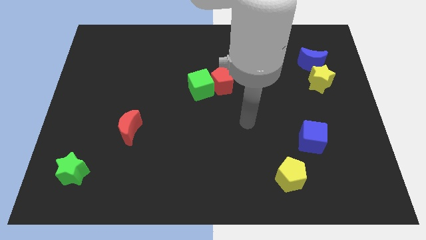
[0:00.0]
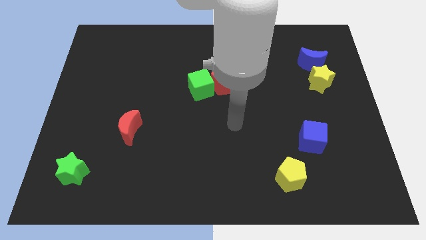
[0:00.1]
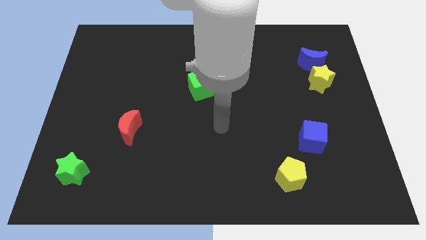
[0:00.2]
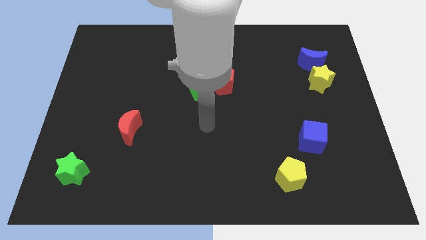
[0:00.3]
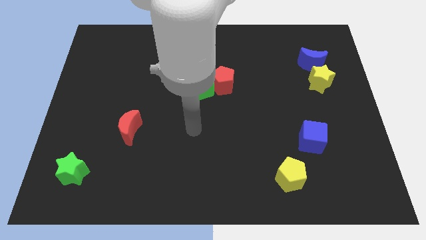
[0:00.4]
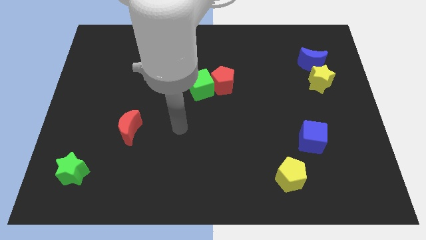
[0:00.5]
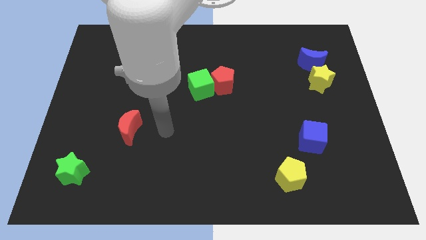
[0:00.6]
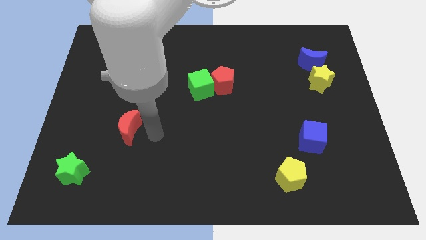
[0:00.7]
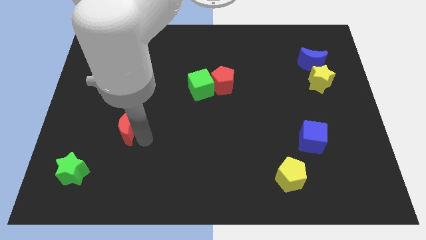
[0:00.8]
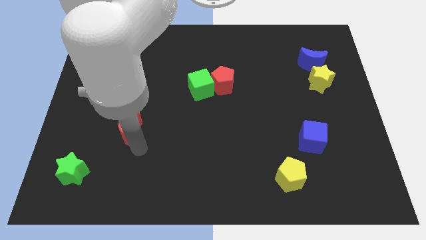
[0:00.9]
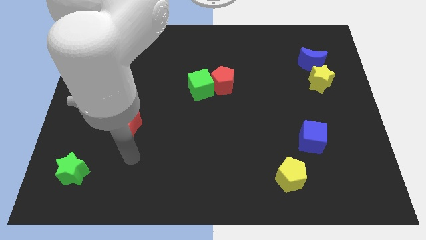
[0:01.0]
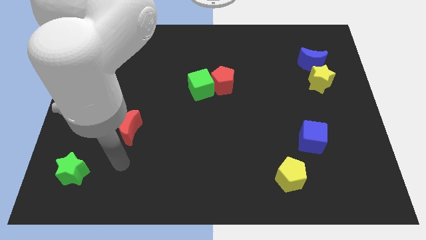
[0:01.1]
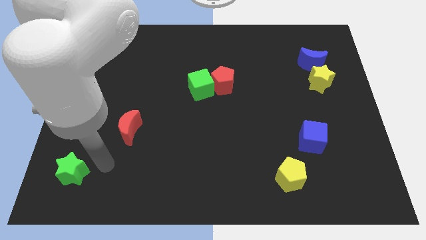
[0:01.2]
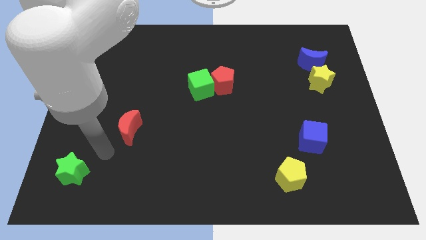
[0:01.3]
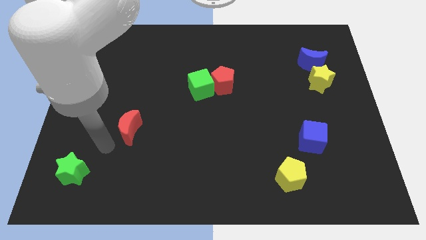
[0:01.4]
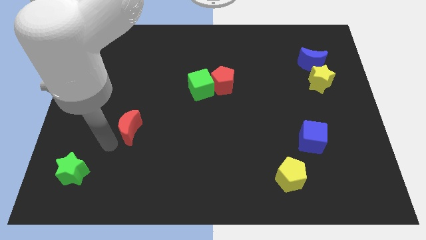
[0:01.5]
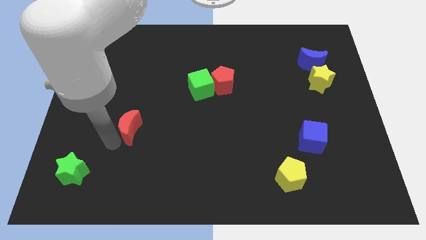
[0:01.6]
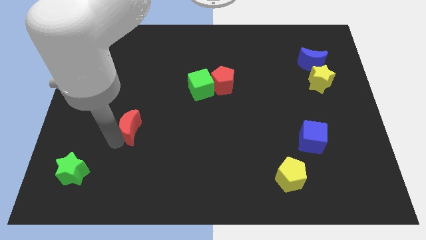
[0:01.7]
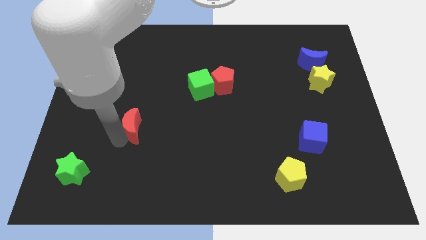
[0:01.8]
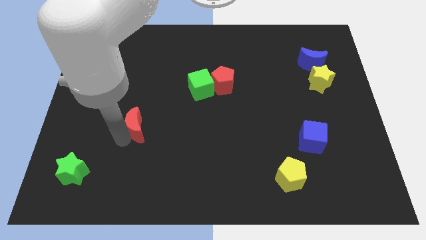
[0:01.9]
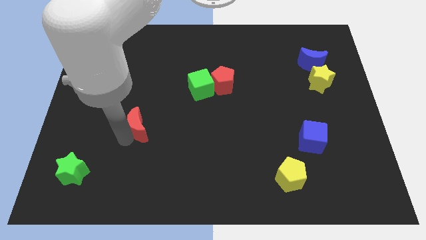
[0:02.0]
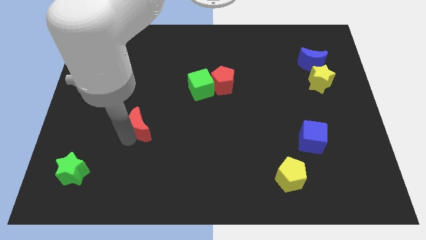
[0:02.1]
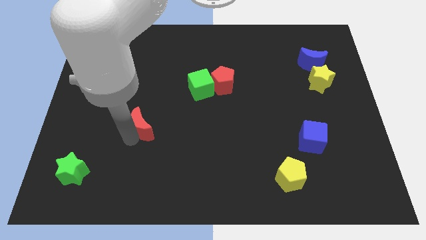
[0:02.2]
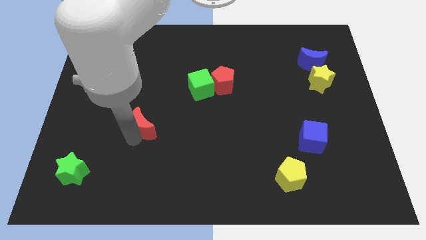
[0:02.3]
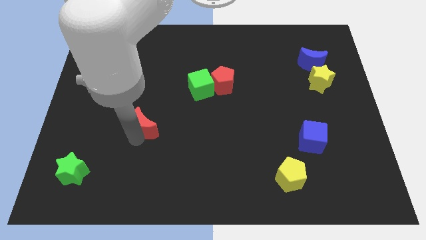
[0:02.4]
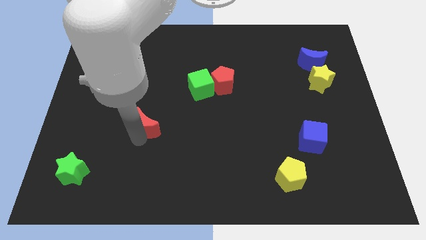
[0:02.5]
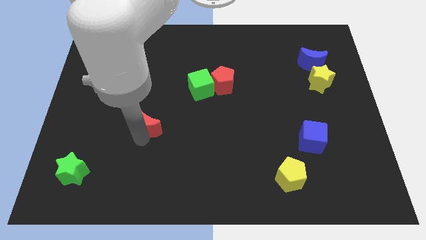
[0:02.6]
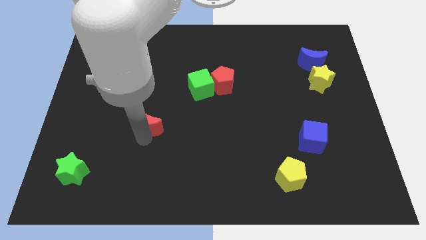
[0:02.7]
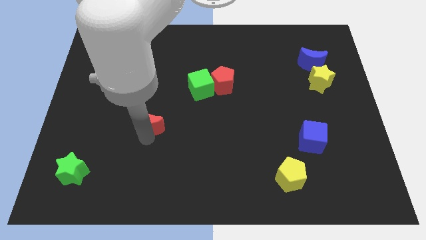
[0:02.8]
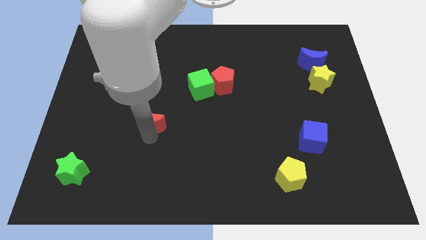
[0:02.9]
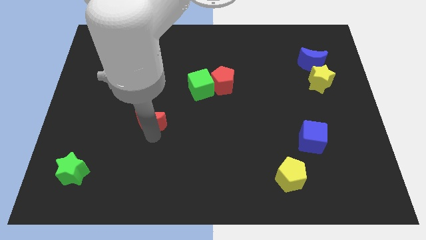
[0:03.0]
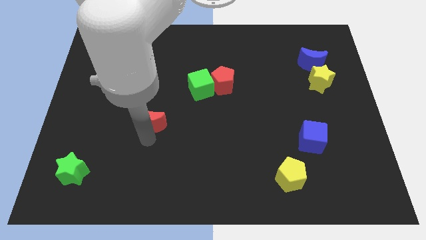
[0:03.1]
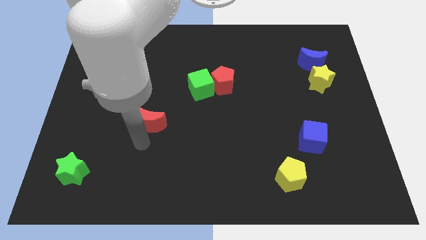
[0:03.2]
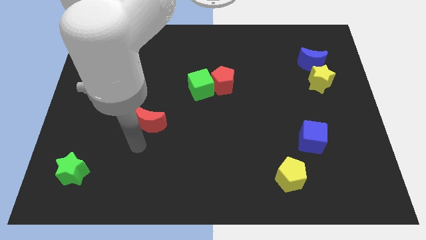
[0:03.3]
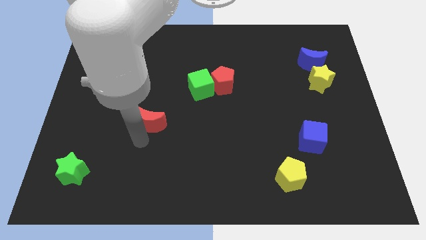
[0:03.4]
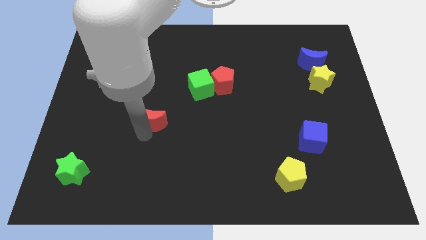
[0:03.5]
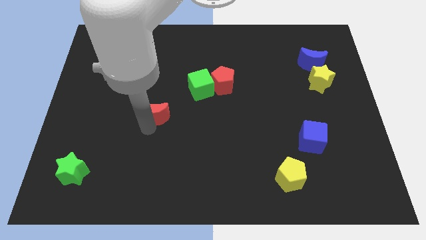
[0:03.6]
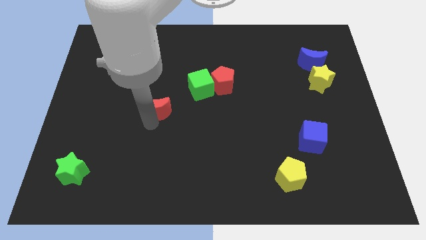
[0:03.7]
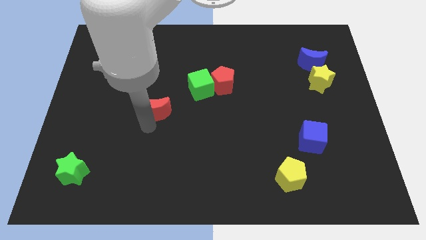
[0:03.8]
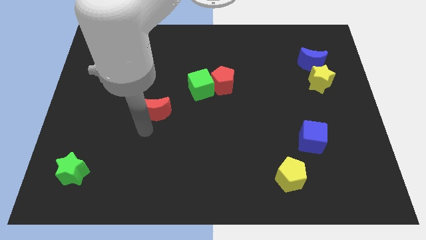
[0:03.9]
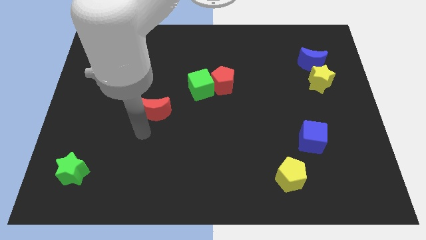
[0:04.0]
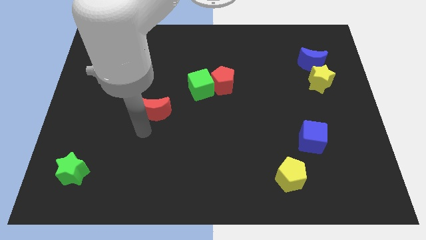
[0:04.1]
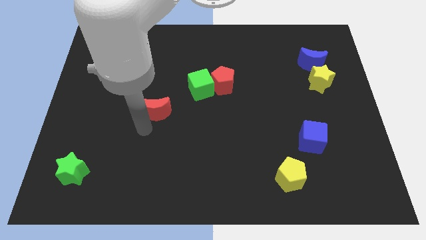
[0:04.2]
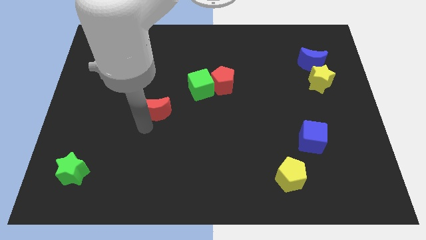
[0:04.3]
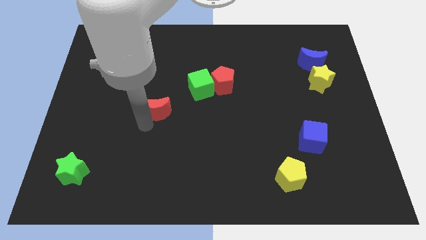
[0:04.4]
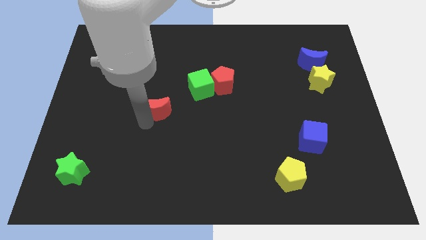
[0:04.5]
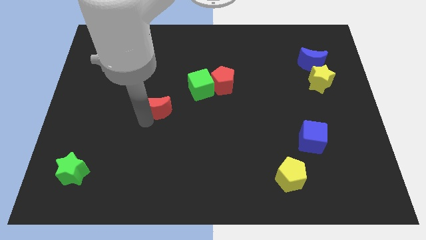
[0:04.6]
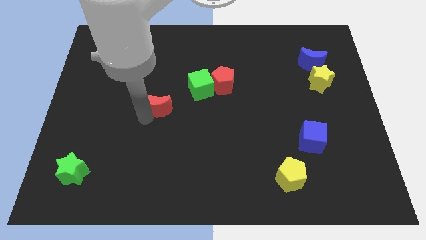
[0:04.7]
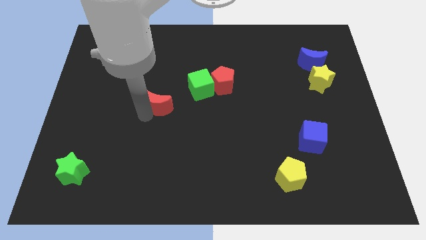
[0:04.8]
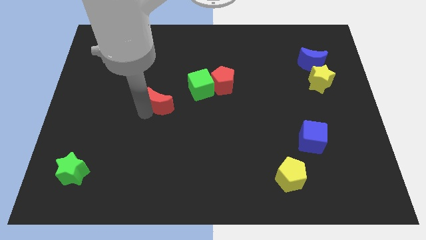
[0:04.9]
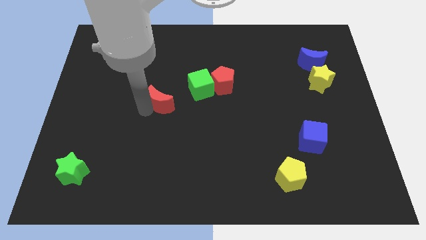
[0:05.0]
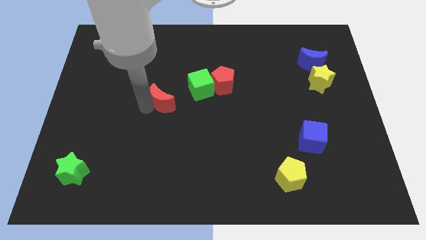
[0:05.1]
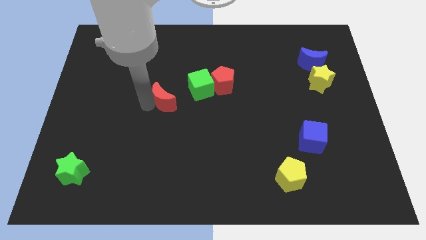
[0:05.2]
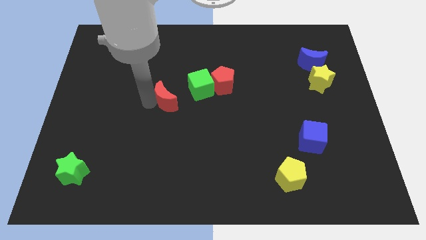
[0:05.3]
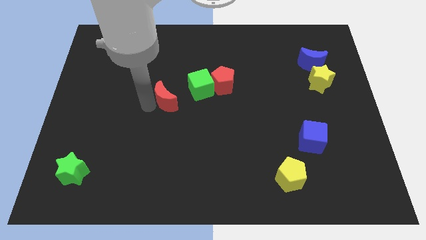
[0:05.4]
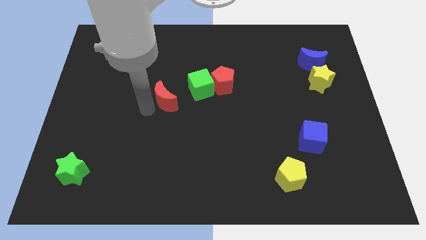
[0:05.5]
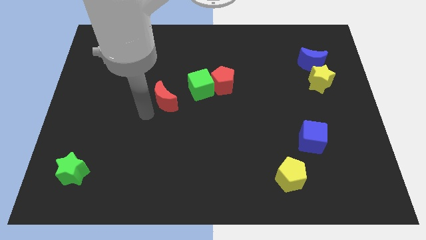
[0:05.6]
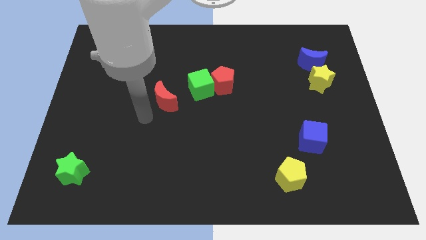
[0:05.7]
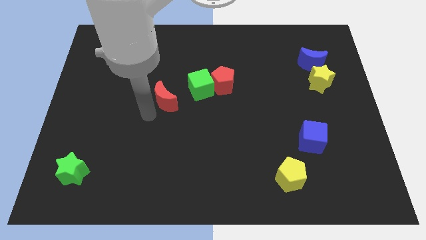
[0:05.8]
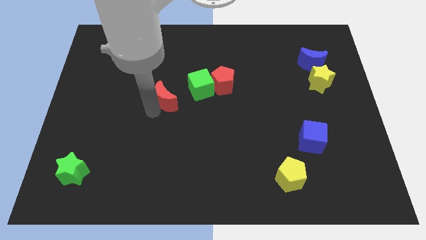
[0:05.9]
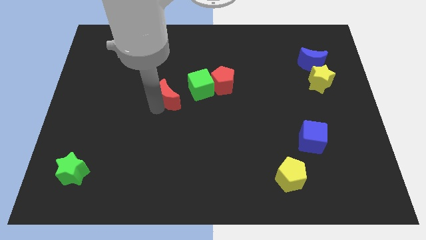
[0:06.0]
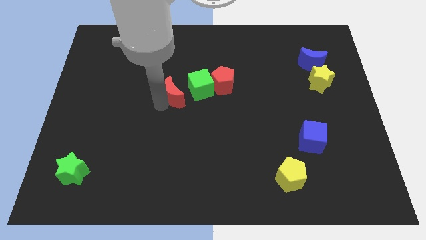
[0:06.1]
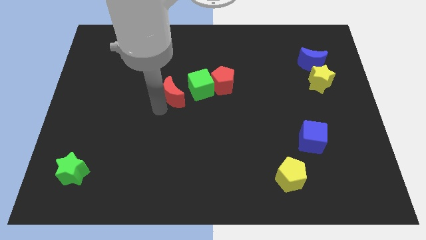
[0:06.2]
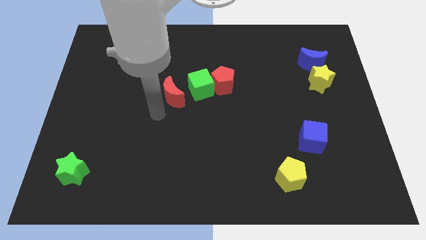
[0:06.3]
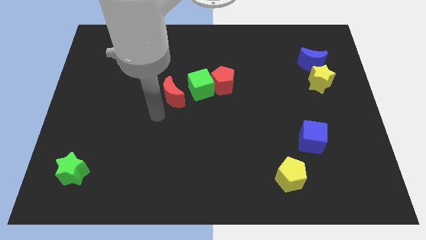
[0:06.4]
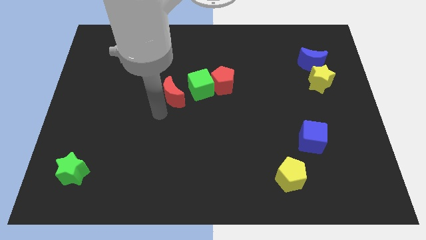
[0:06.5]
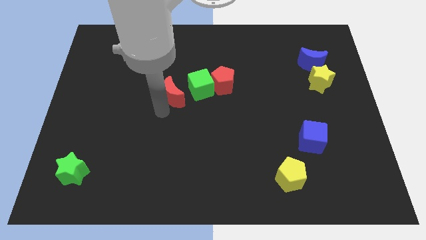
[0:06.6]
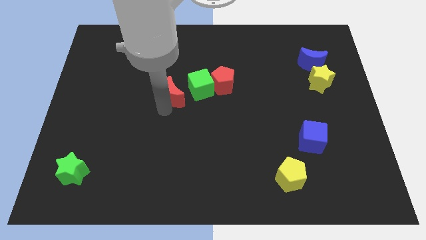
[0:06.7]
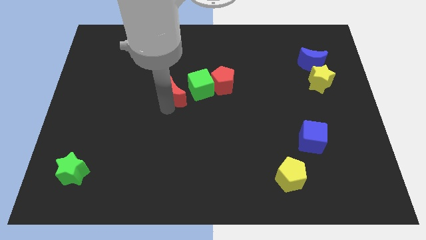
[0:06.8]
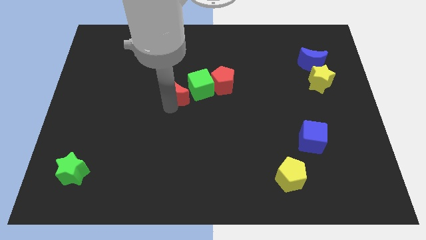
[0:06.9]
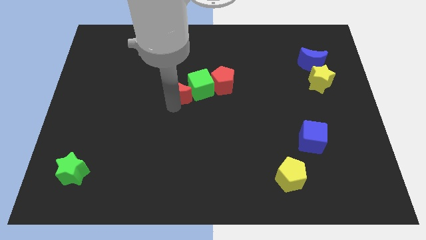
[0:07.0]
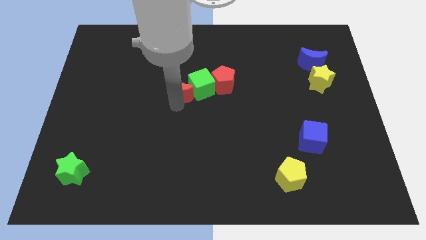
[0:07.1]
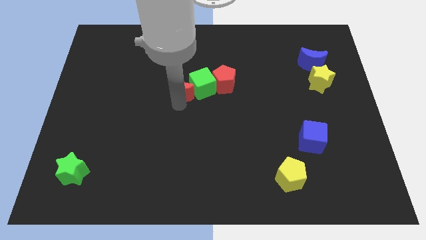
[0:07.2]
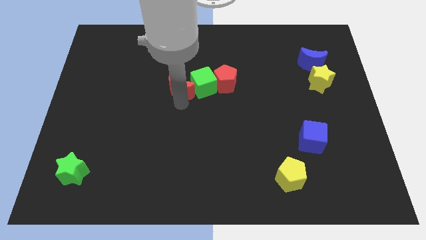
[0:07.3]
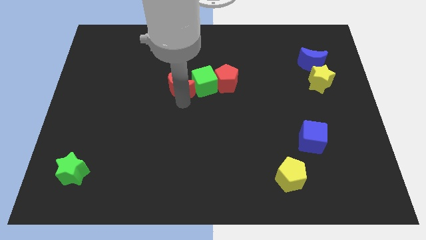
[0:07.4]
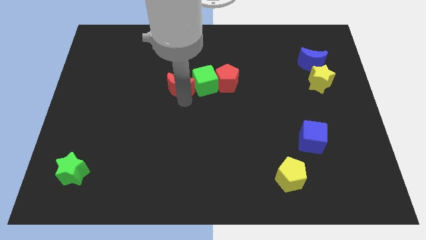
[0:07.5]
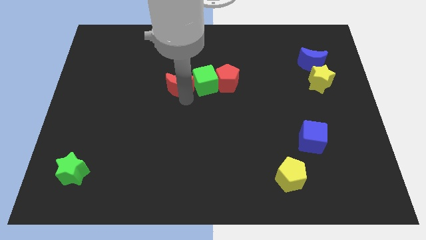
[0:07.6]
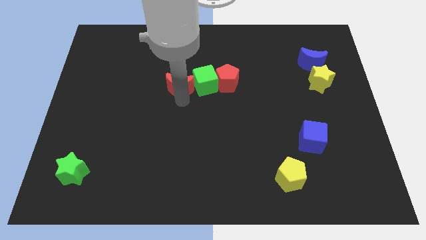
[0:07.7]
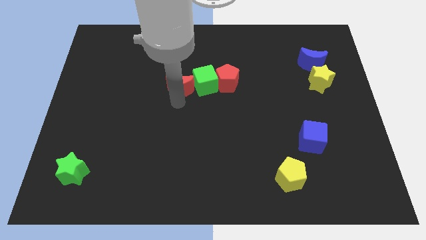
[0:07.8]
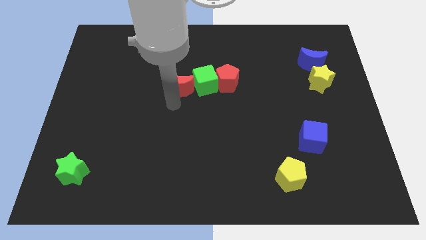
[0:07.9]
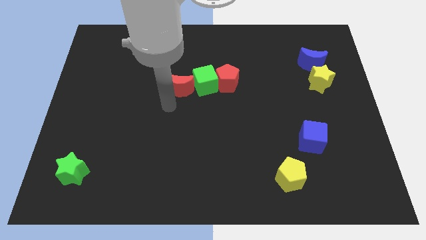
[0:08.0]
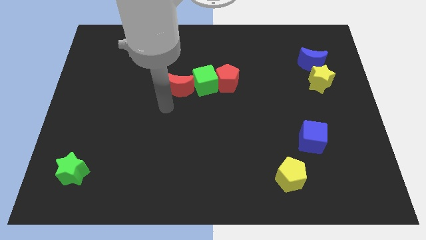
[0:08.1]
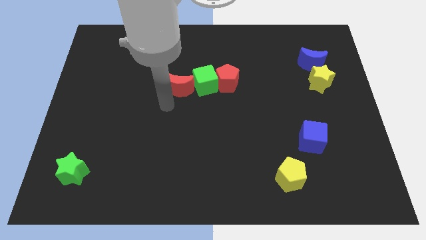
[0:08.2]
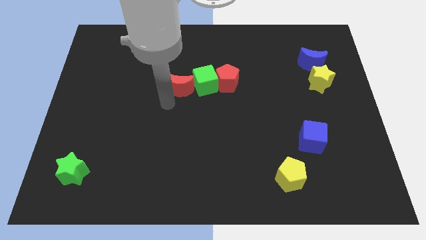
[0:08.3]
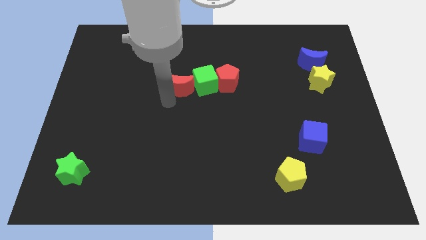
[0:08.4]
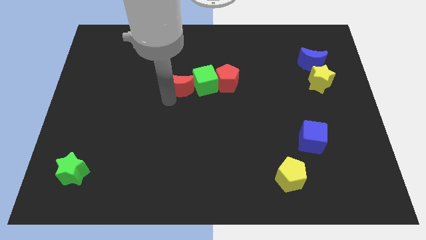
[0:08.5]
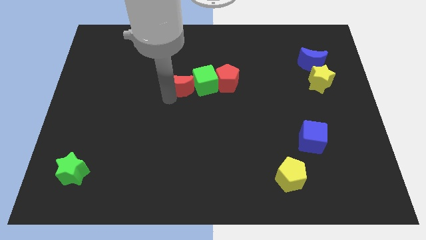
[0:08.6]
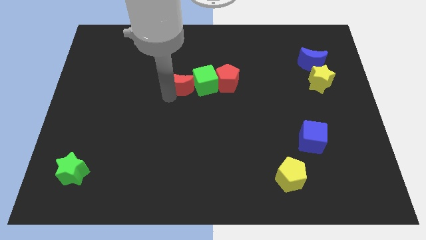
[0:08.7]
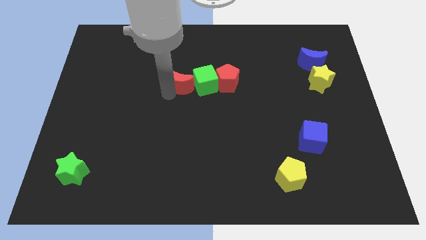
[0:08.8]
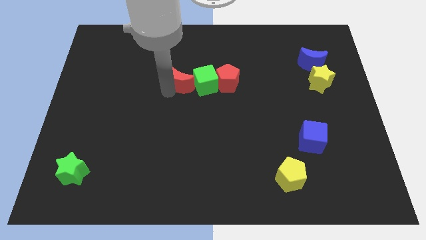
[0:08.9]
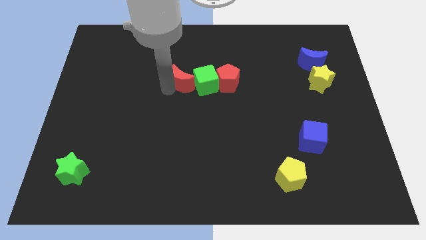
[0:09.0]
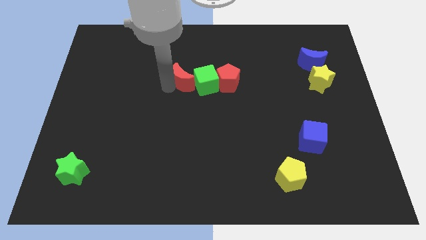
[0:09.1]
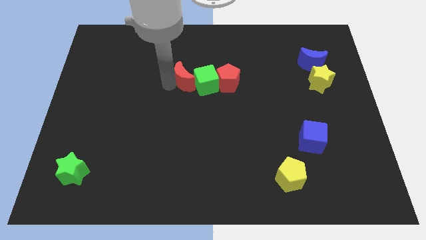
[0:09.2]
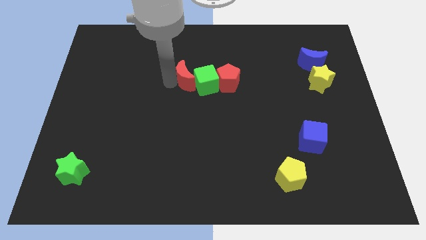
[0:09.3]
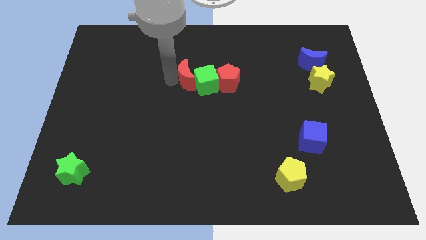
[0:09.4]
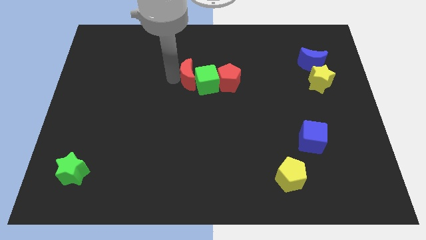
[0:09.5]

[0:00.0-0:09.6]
push the red moon upwards and then to the right
